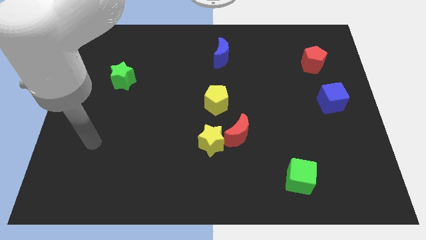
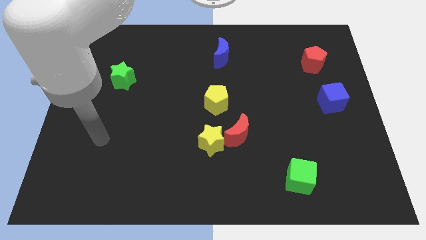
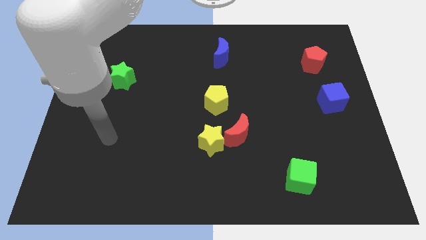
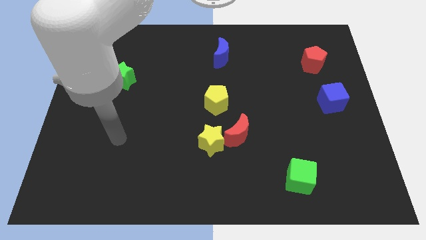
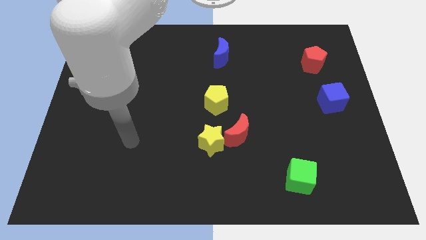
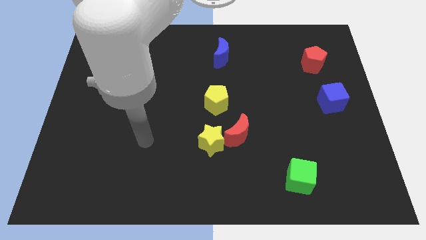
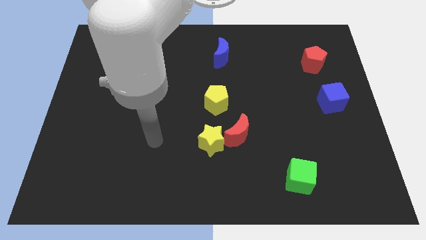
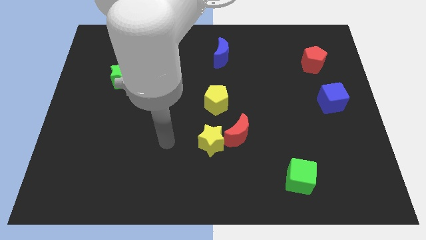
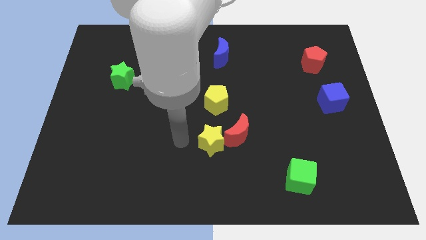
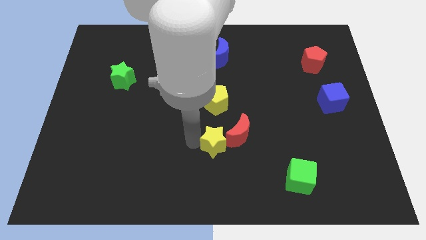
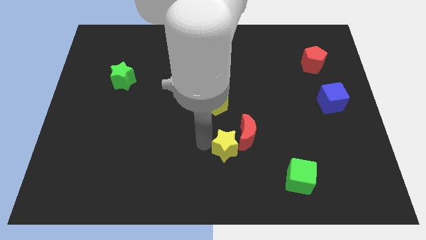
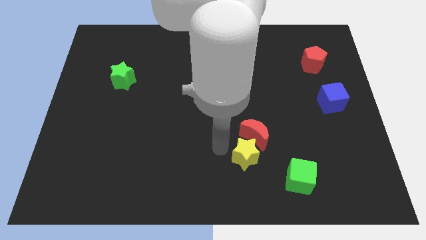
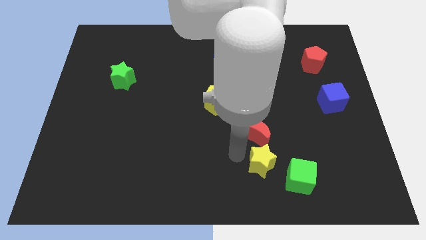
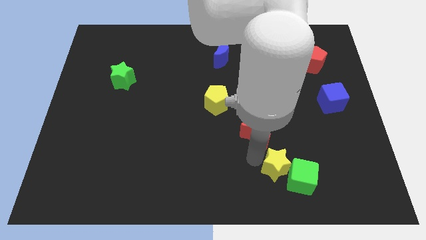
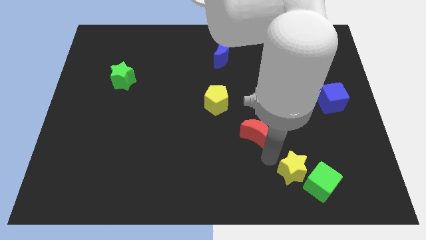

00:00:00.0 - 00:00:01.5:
pull the red moon apart from the yellow star

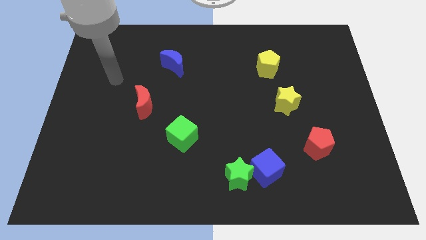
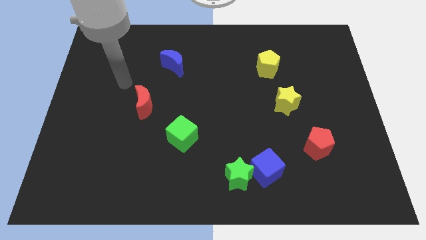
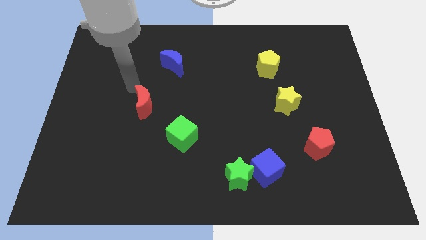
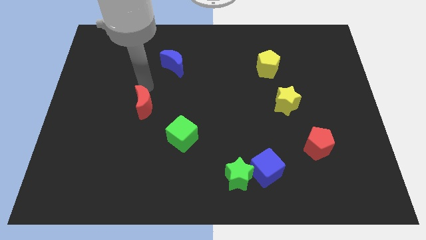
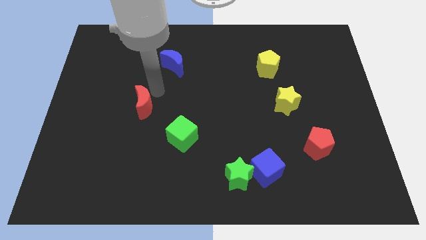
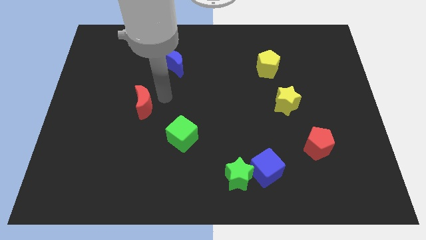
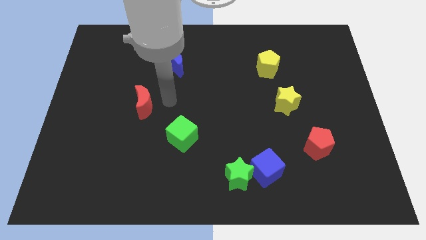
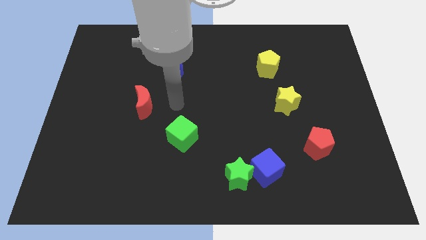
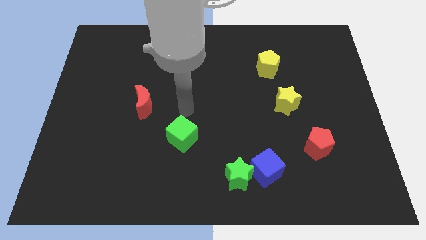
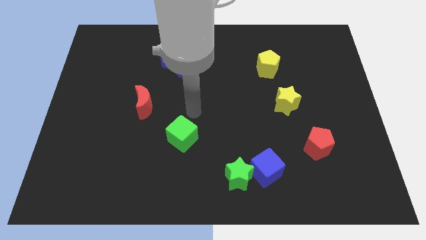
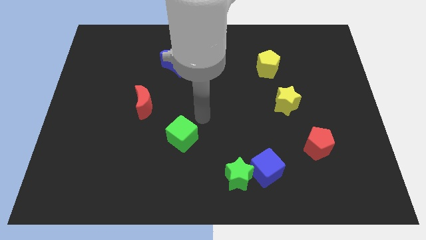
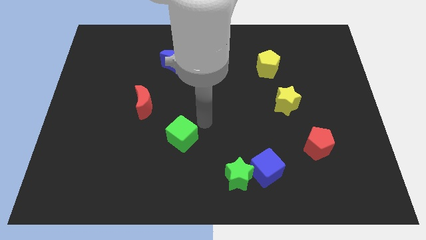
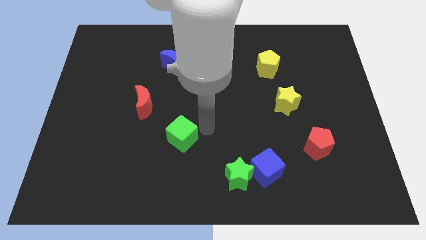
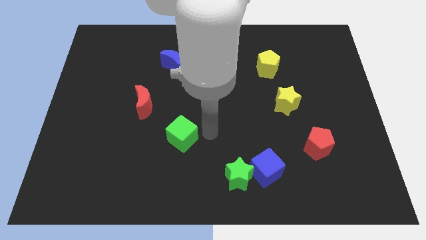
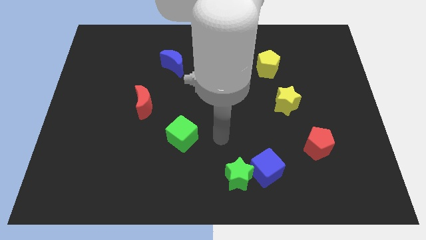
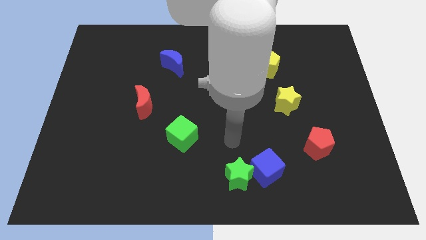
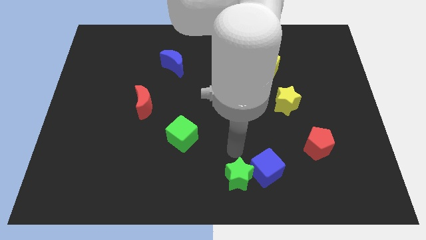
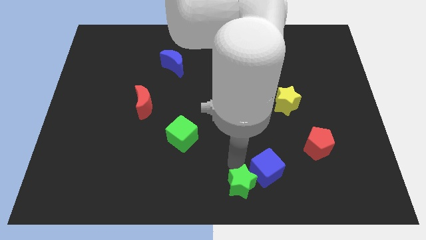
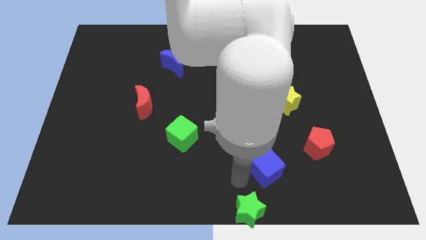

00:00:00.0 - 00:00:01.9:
move the blue cube away from the green star

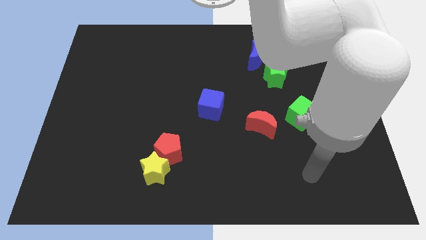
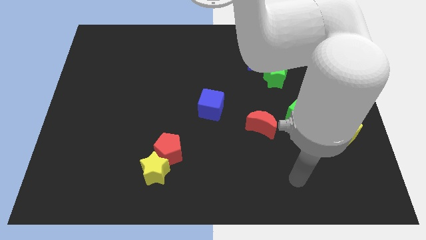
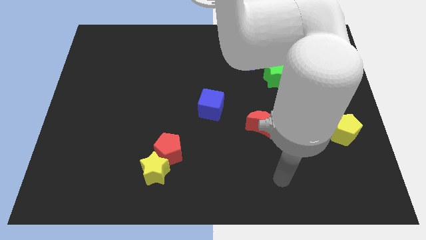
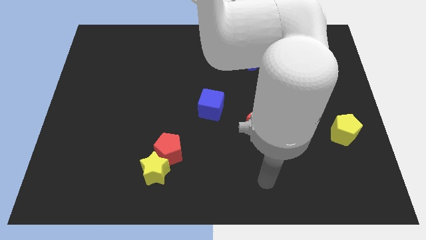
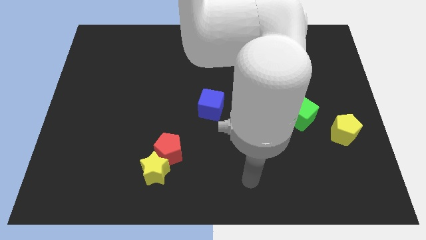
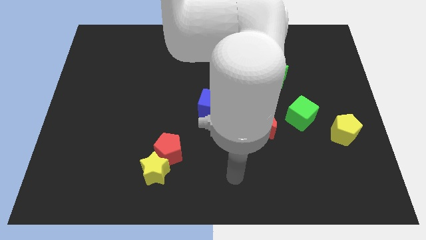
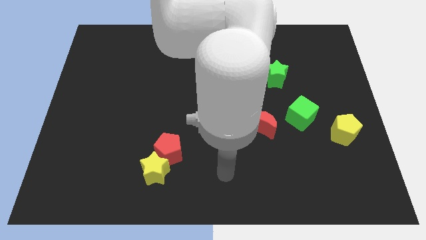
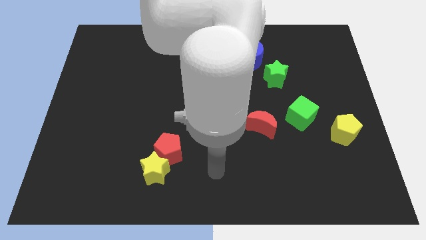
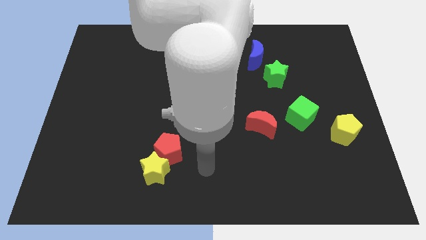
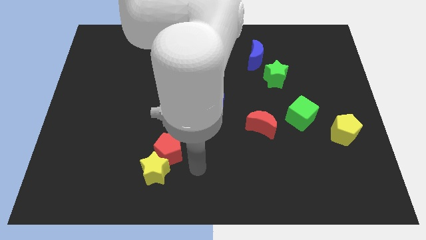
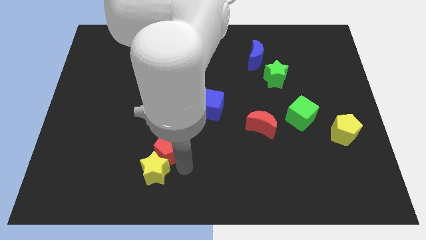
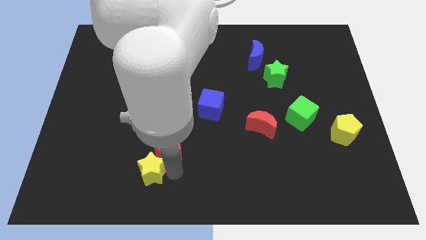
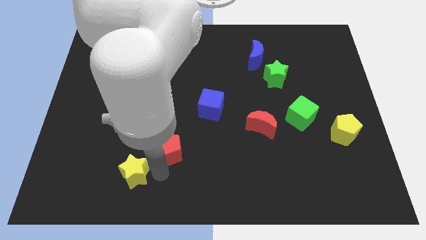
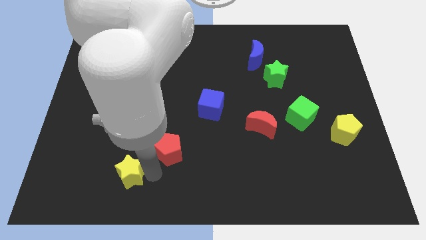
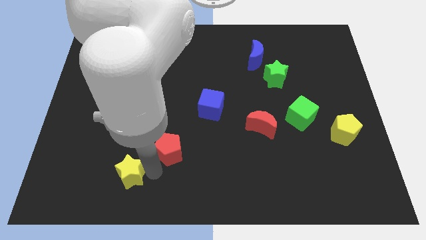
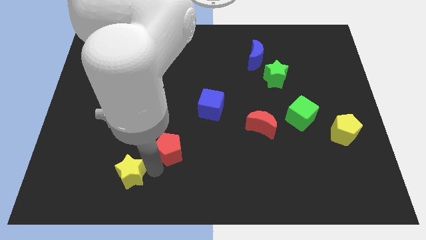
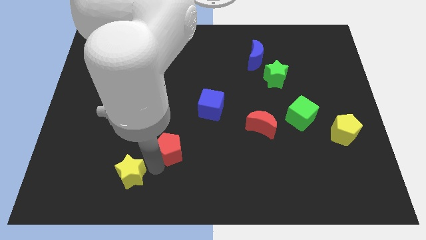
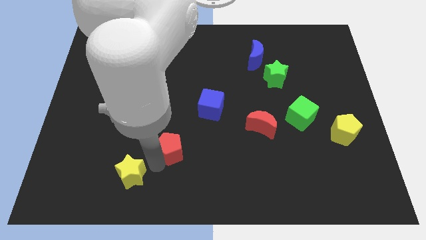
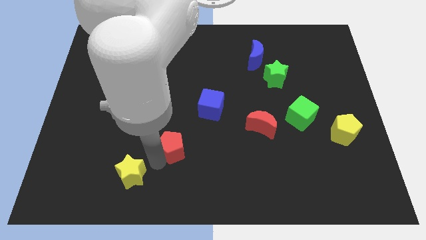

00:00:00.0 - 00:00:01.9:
move the red pentagon away from the yellow star

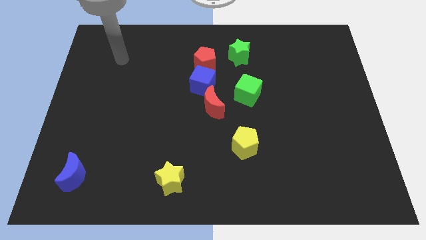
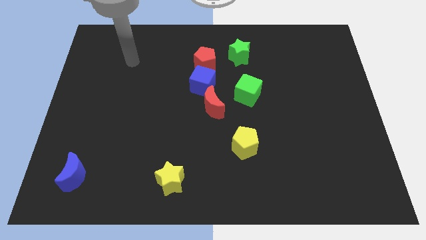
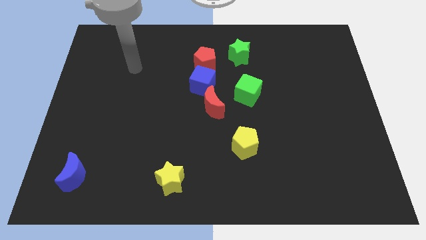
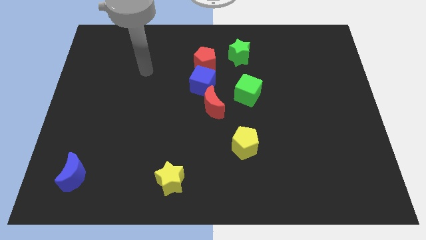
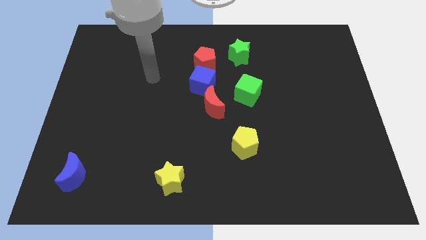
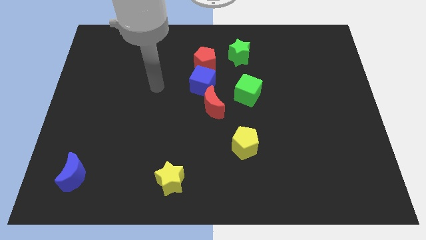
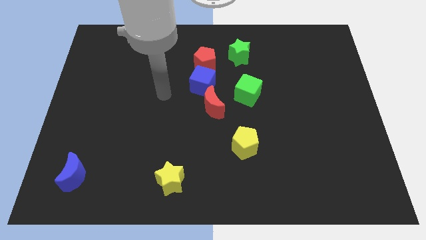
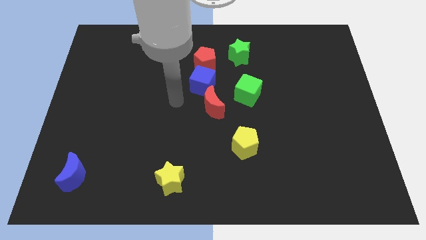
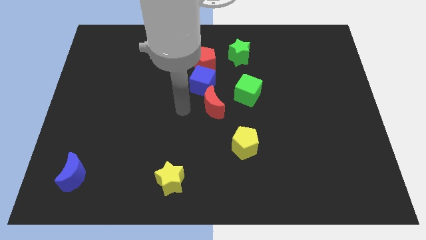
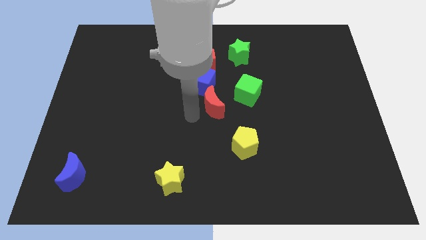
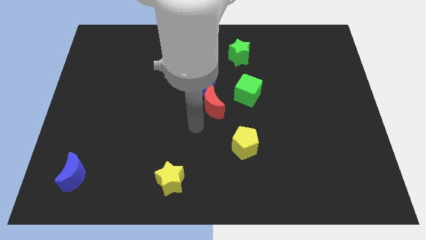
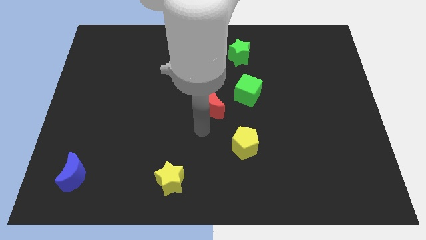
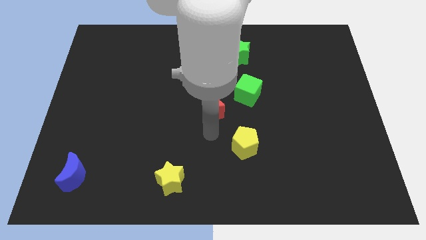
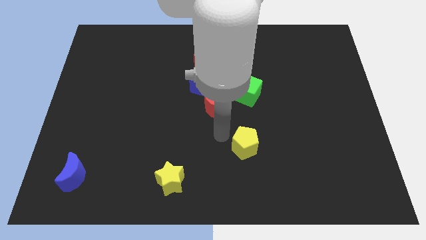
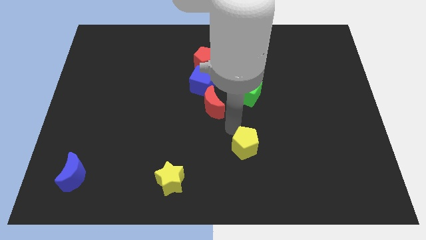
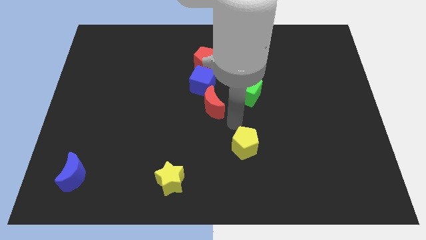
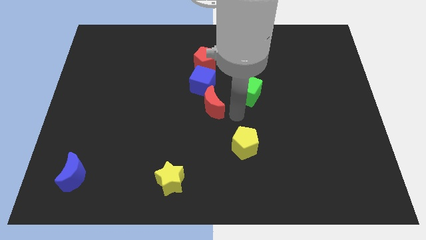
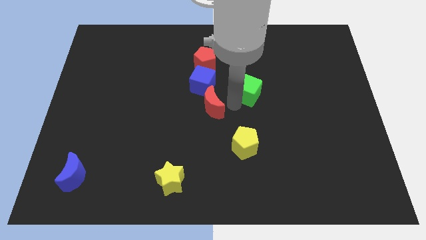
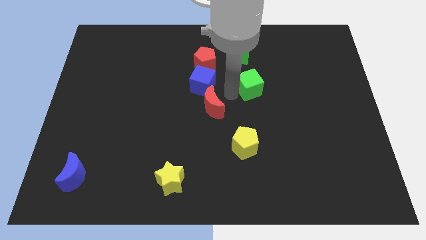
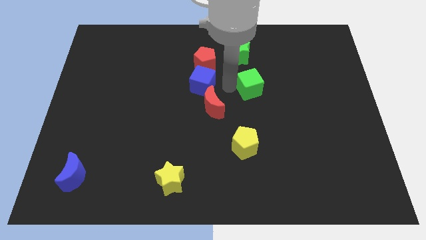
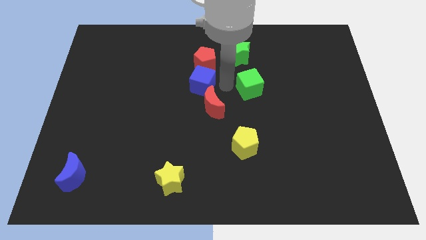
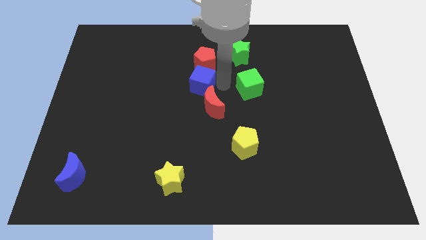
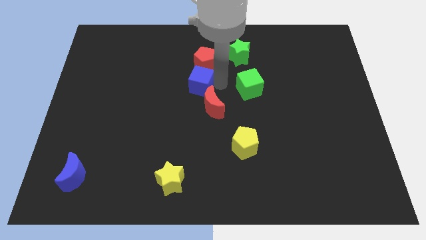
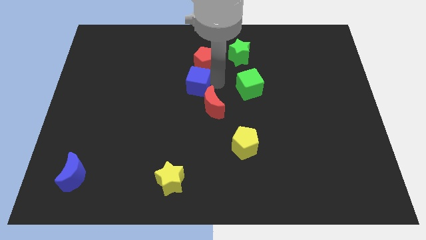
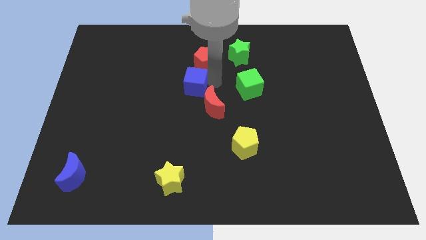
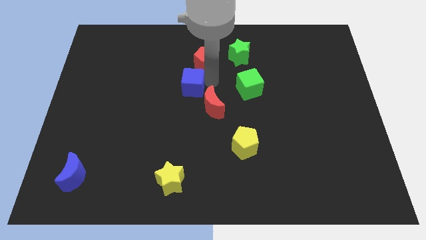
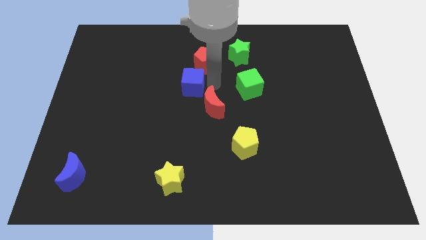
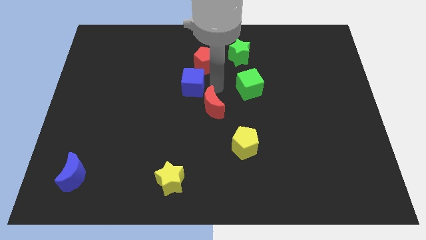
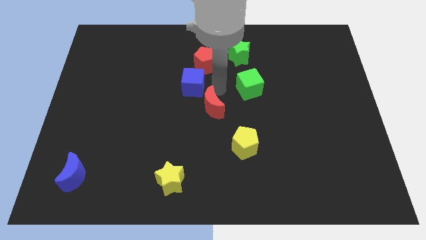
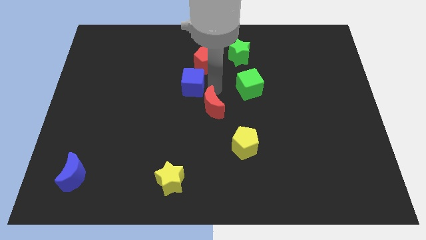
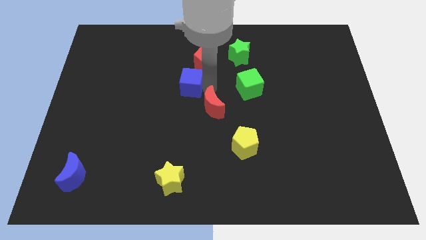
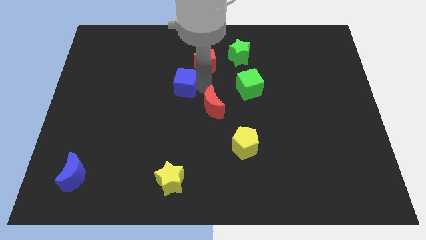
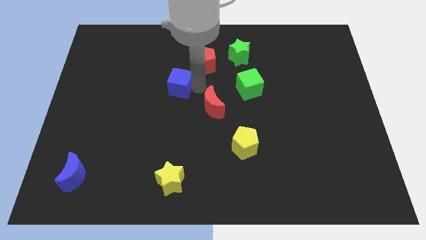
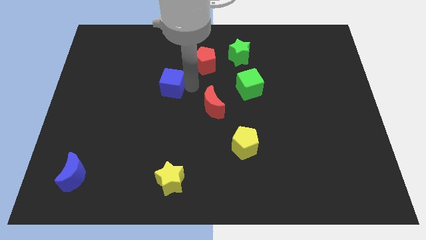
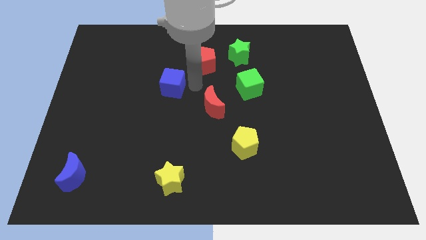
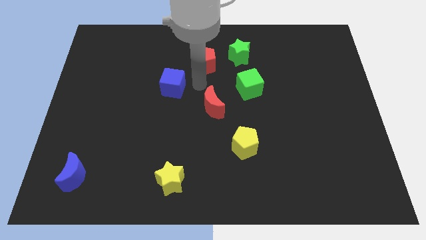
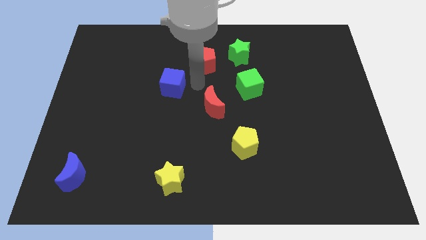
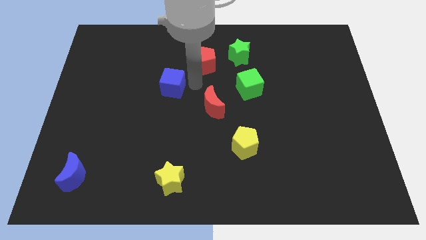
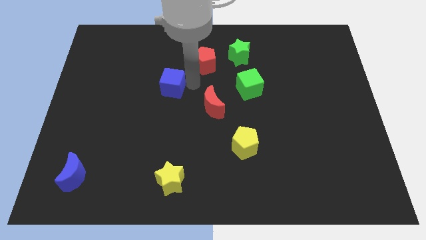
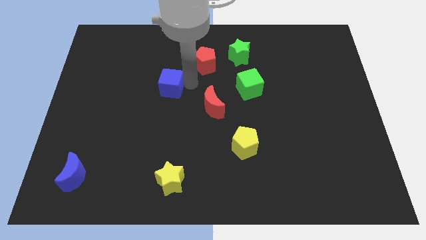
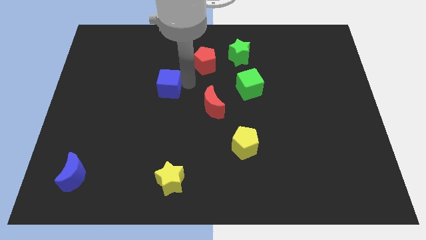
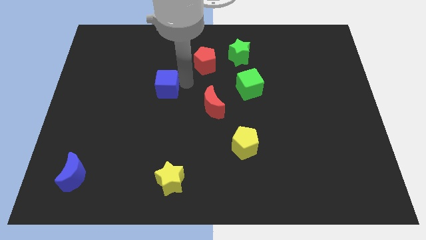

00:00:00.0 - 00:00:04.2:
move the blue cube away from the red pentagon and red moon

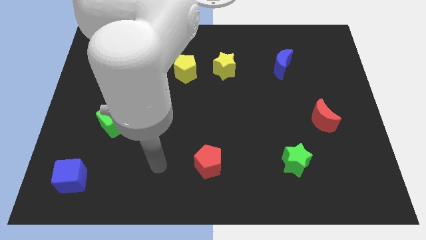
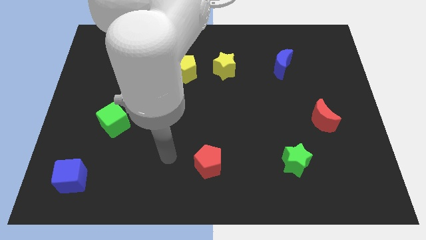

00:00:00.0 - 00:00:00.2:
separate the yellow star from the yellow pentagon
